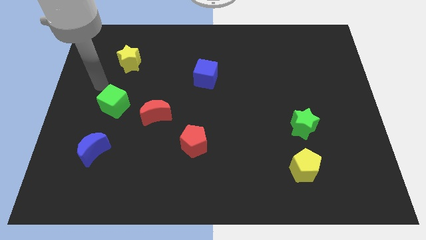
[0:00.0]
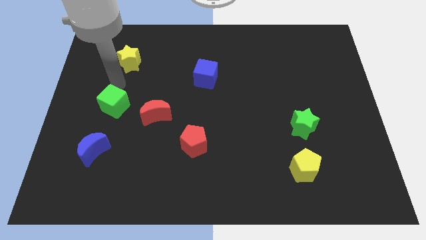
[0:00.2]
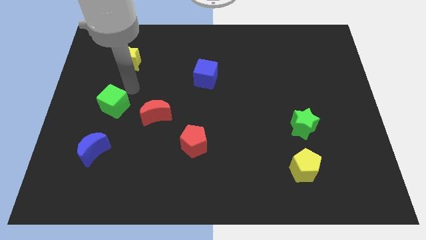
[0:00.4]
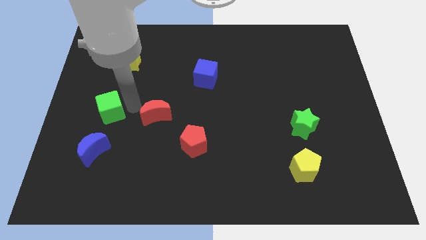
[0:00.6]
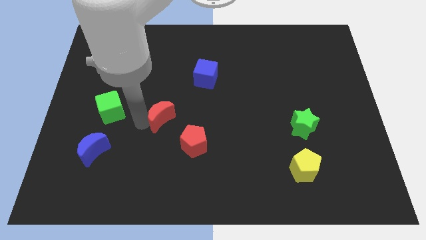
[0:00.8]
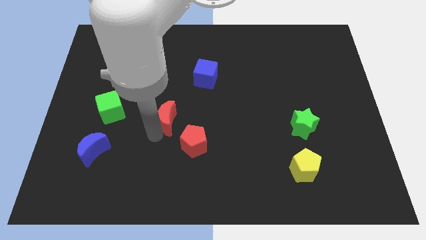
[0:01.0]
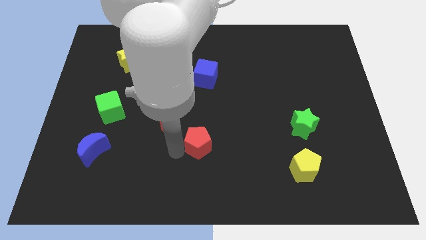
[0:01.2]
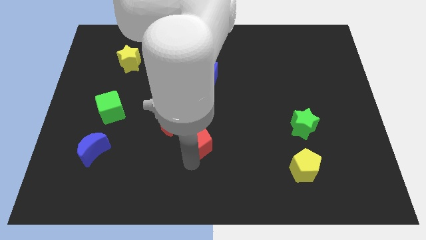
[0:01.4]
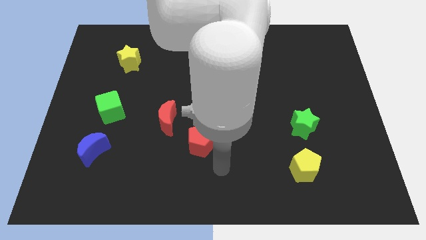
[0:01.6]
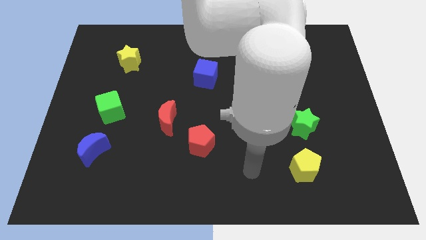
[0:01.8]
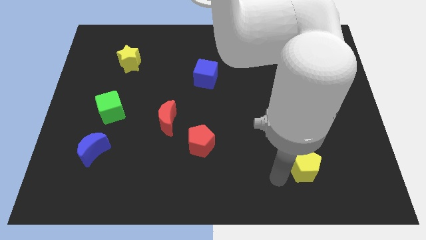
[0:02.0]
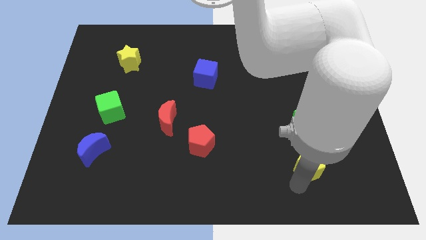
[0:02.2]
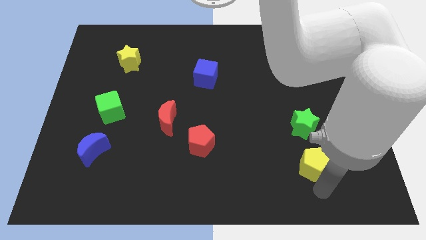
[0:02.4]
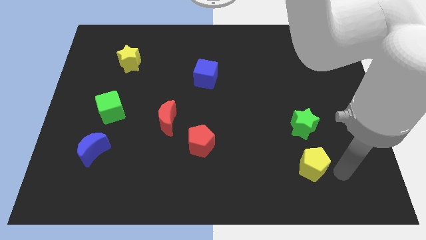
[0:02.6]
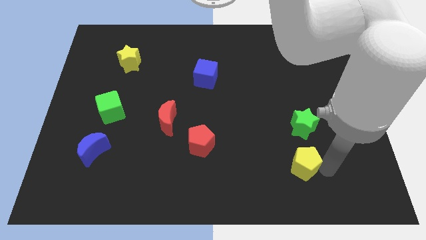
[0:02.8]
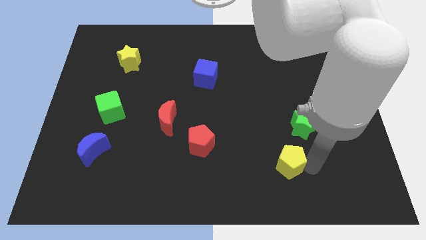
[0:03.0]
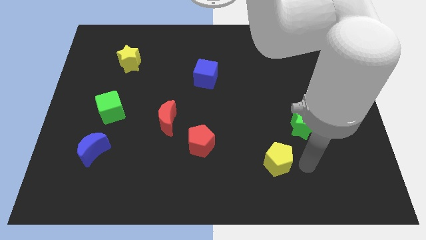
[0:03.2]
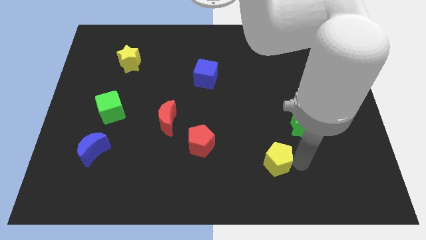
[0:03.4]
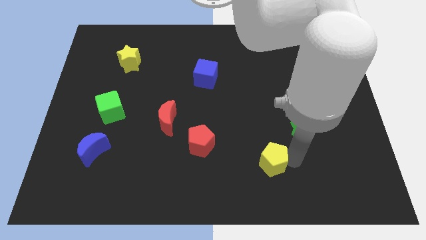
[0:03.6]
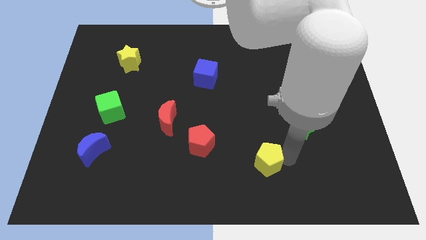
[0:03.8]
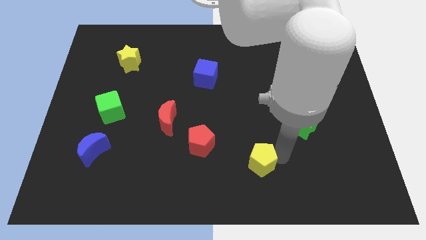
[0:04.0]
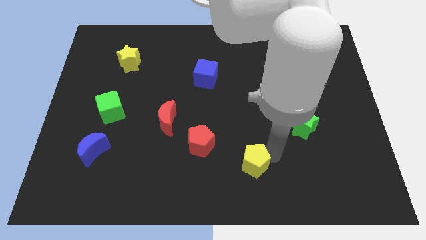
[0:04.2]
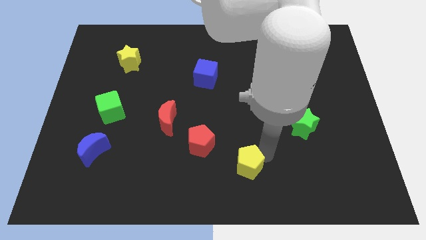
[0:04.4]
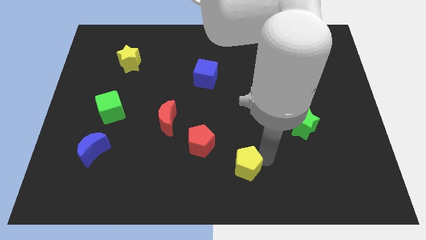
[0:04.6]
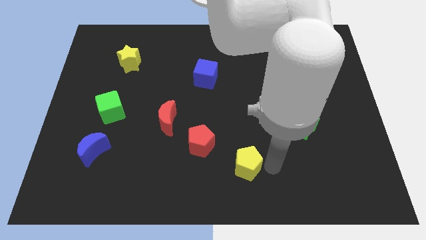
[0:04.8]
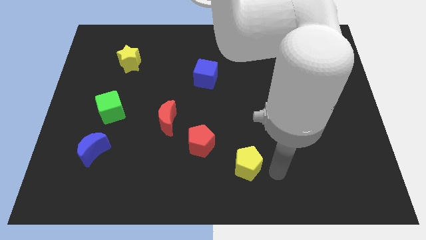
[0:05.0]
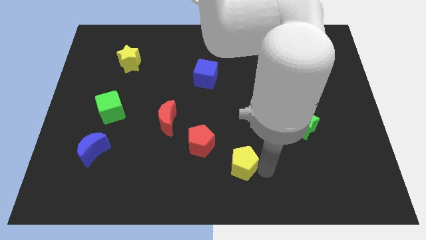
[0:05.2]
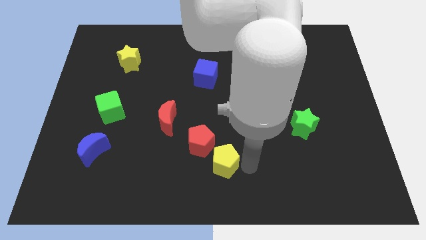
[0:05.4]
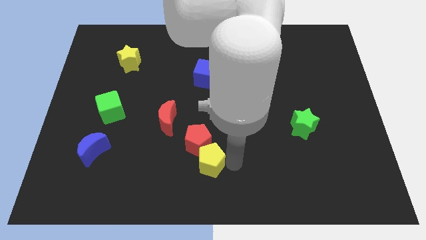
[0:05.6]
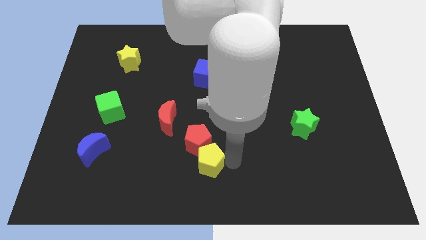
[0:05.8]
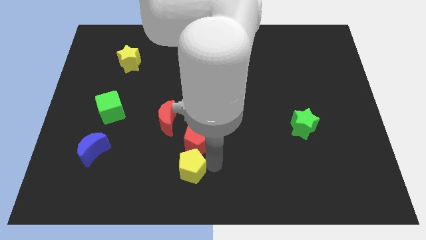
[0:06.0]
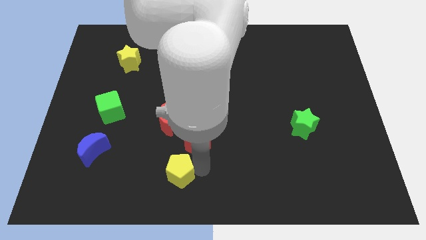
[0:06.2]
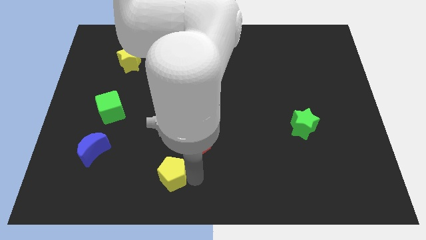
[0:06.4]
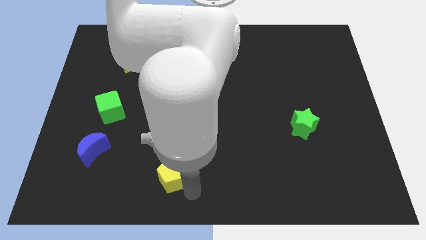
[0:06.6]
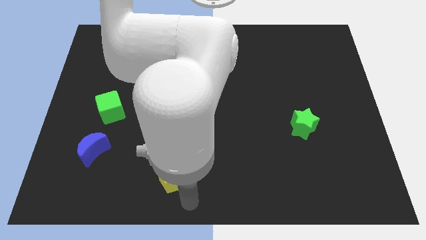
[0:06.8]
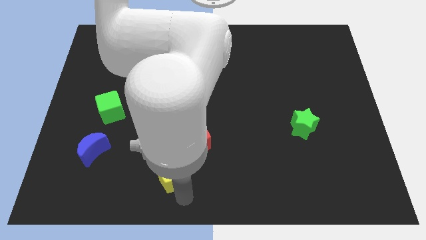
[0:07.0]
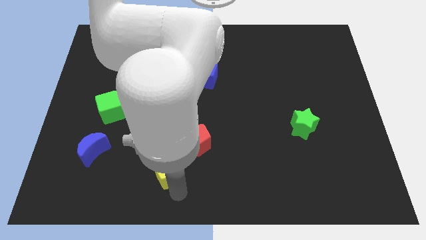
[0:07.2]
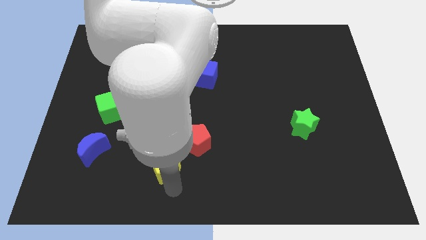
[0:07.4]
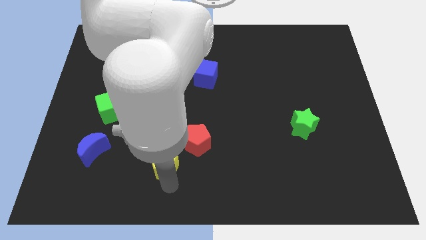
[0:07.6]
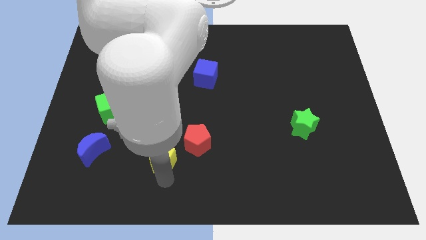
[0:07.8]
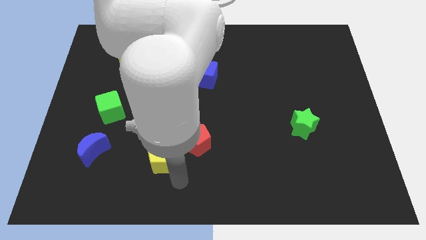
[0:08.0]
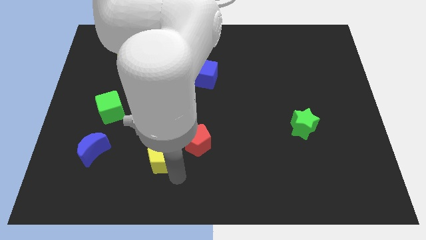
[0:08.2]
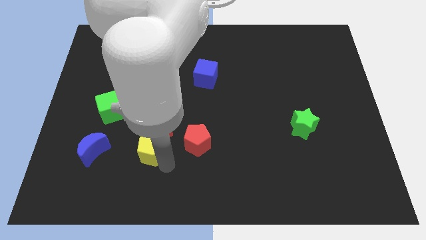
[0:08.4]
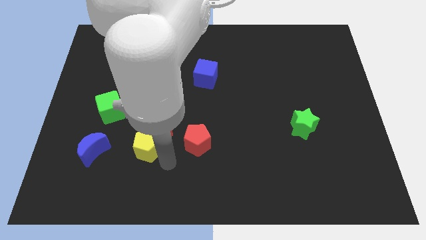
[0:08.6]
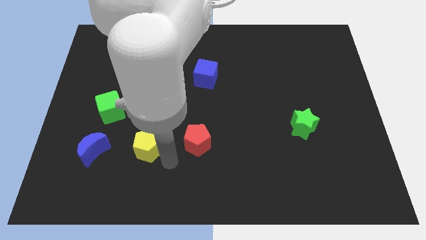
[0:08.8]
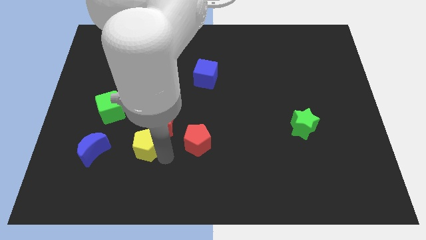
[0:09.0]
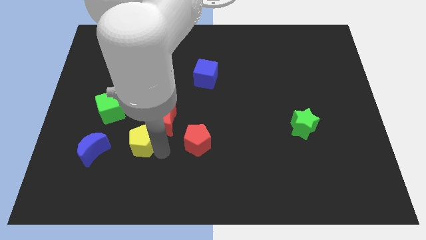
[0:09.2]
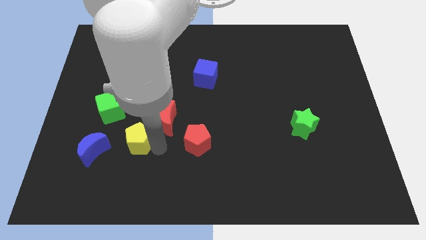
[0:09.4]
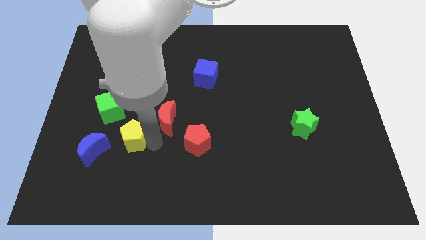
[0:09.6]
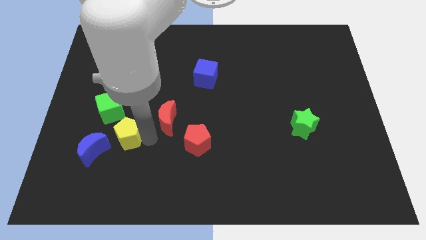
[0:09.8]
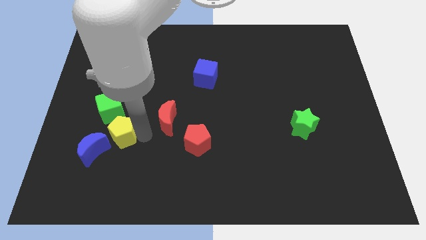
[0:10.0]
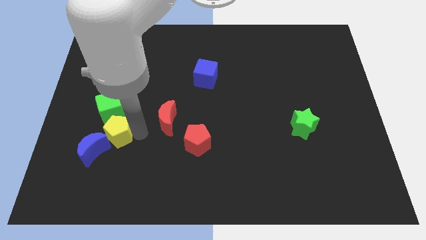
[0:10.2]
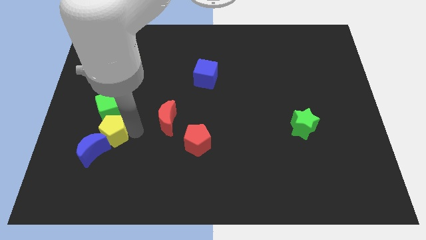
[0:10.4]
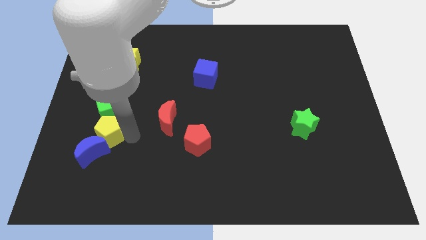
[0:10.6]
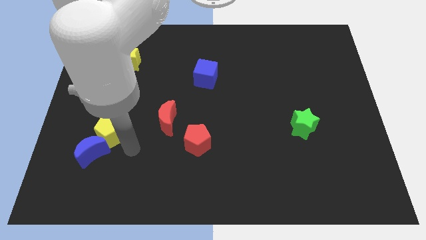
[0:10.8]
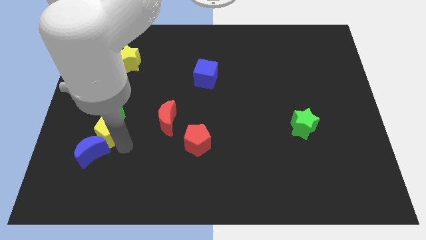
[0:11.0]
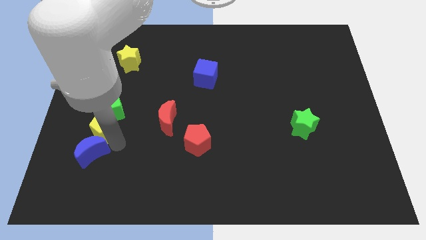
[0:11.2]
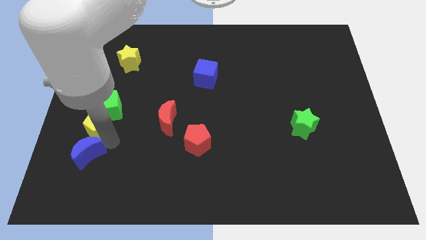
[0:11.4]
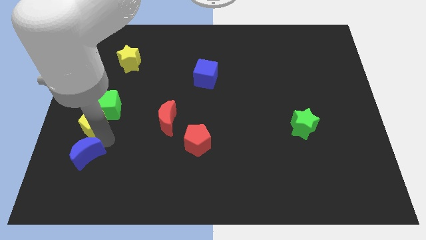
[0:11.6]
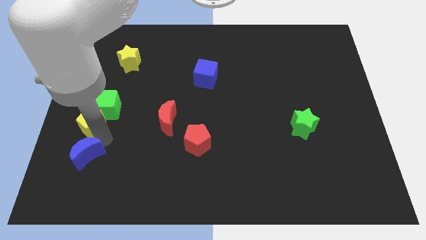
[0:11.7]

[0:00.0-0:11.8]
move the yellow pentagon to the left side
